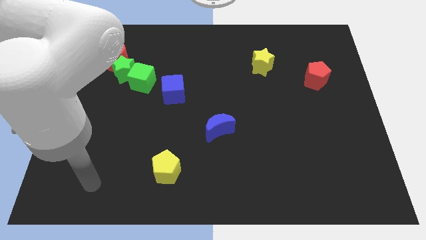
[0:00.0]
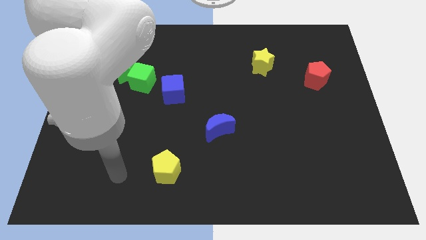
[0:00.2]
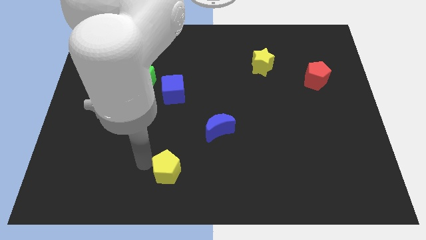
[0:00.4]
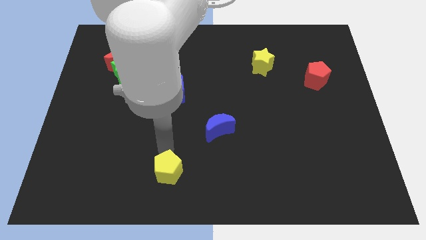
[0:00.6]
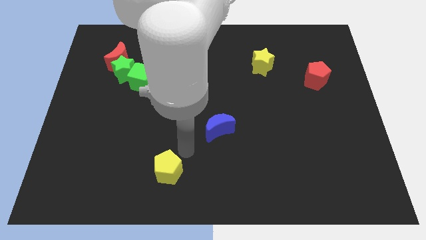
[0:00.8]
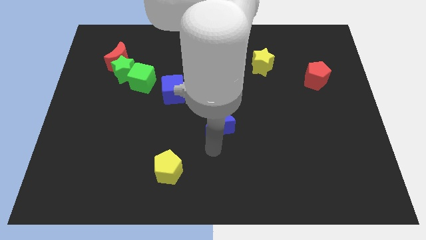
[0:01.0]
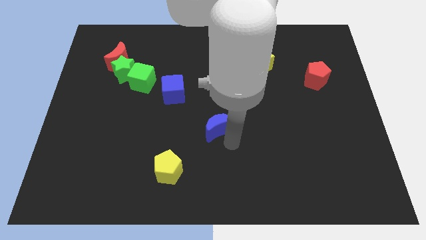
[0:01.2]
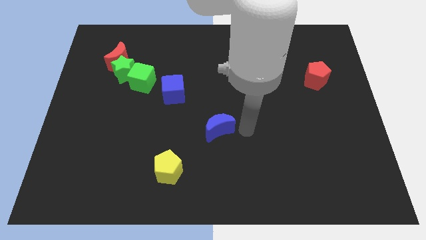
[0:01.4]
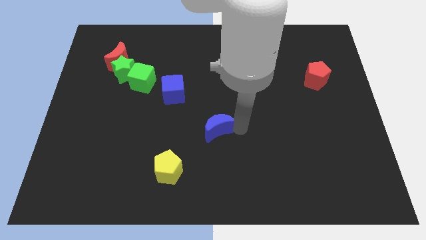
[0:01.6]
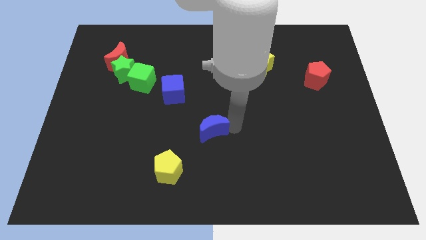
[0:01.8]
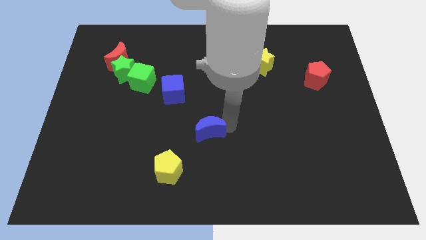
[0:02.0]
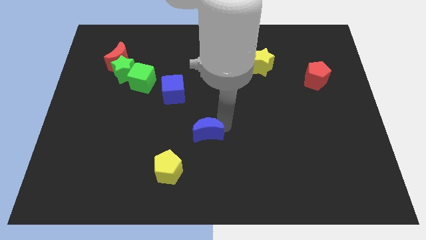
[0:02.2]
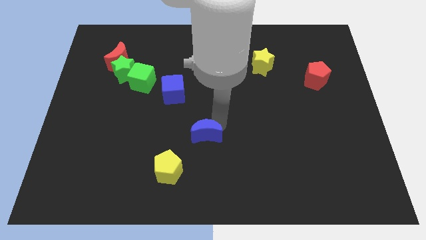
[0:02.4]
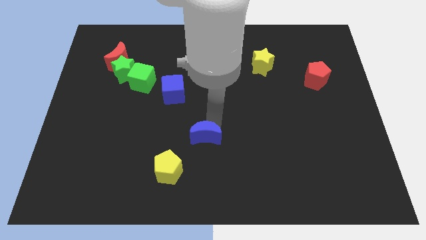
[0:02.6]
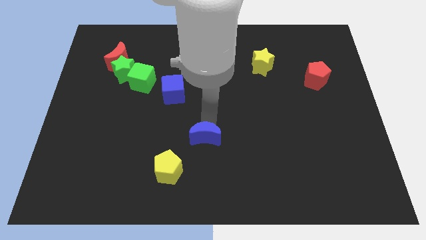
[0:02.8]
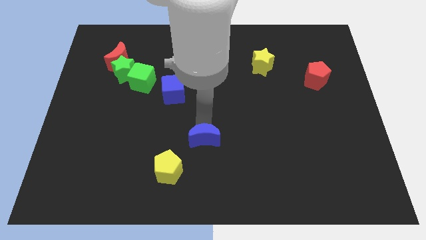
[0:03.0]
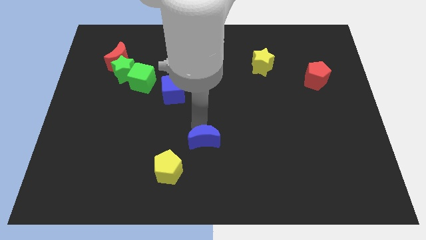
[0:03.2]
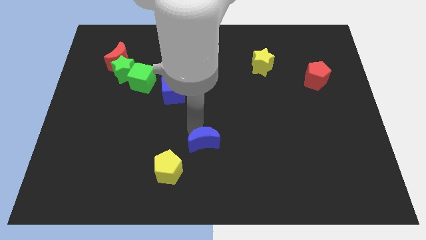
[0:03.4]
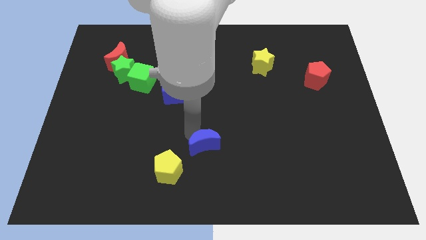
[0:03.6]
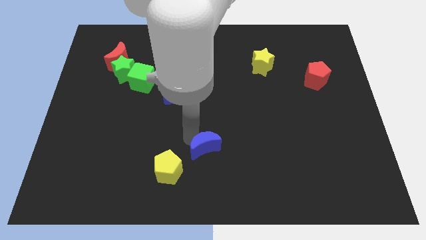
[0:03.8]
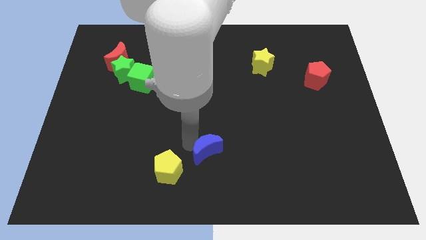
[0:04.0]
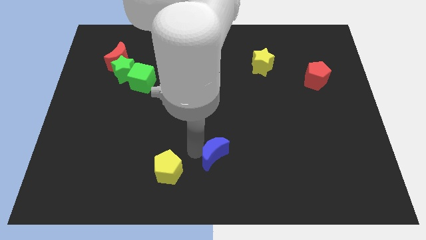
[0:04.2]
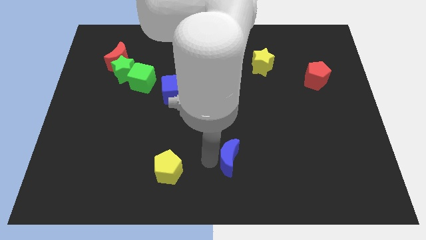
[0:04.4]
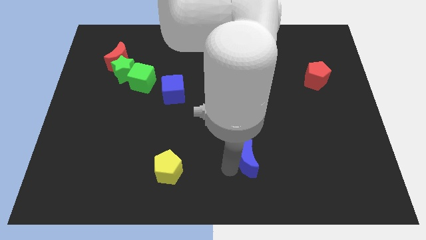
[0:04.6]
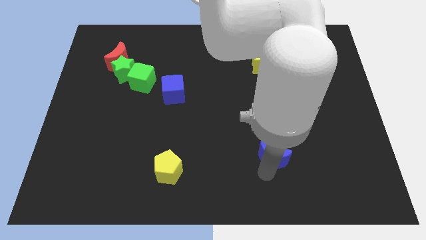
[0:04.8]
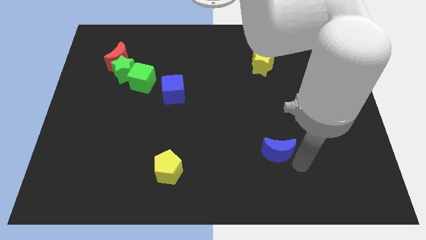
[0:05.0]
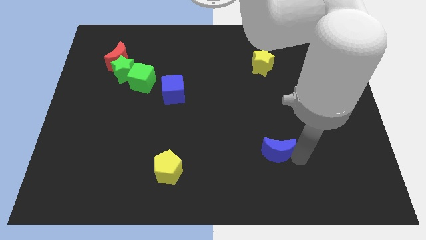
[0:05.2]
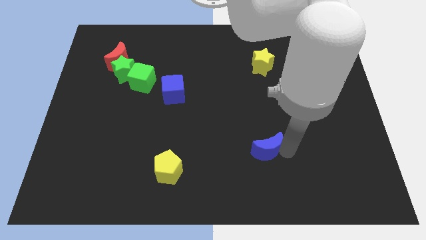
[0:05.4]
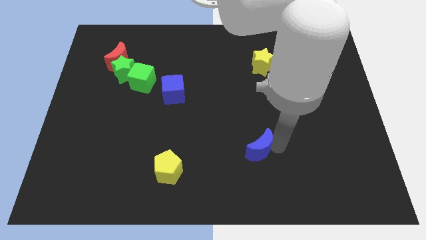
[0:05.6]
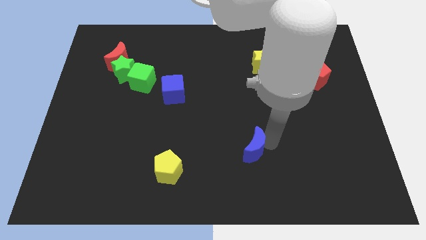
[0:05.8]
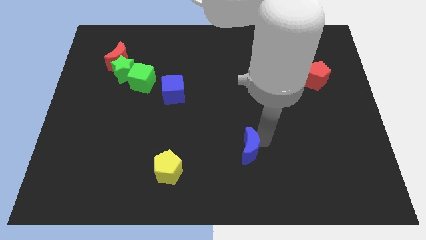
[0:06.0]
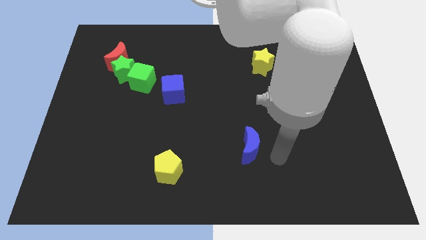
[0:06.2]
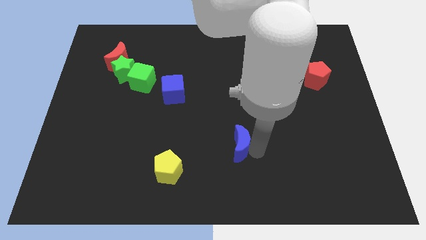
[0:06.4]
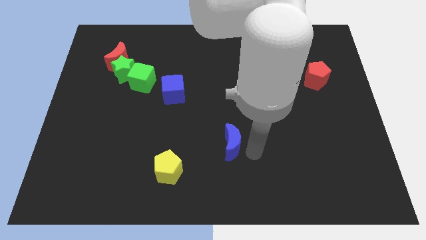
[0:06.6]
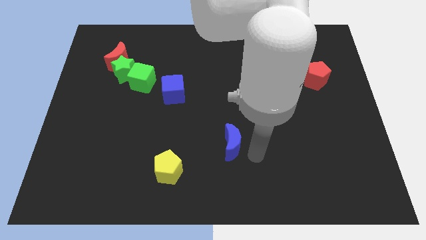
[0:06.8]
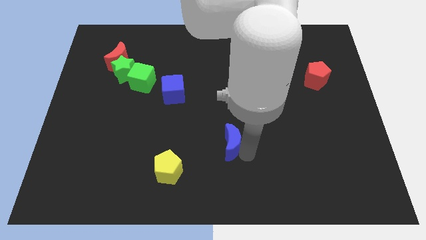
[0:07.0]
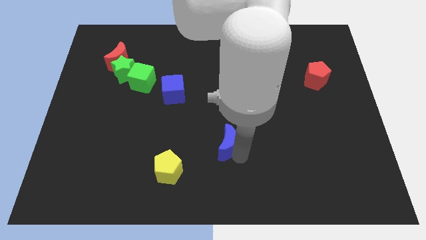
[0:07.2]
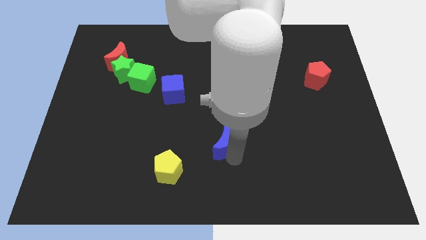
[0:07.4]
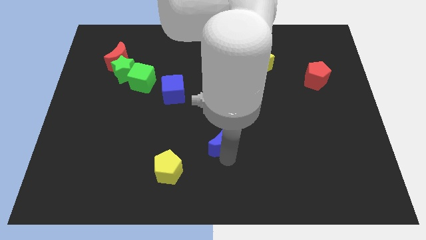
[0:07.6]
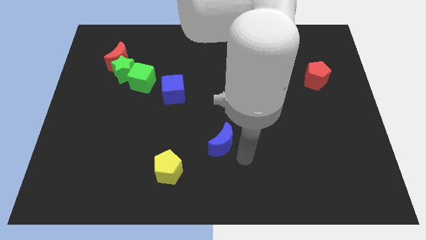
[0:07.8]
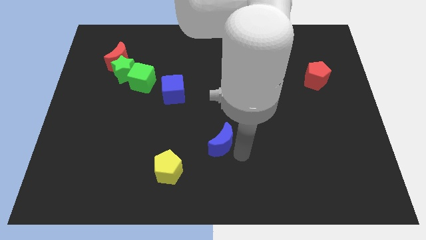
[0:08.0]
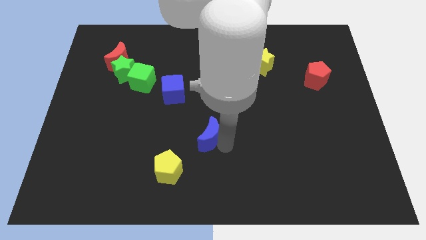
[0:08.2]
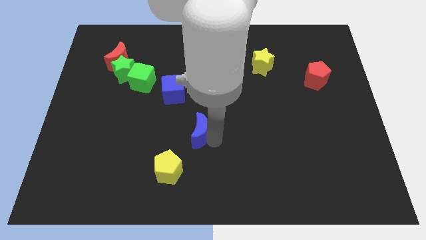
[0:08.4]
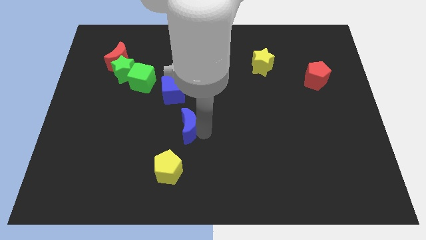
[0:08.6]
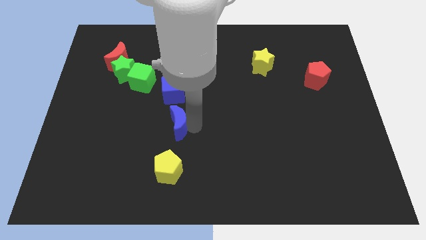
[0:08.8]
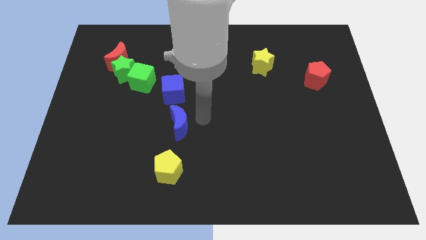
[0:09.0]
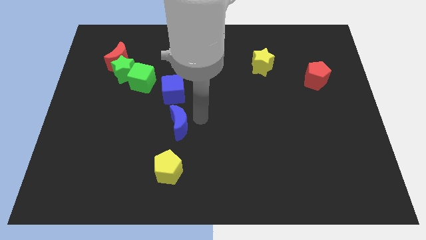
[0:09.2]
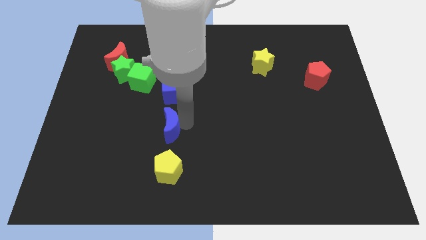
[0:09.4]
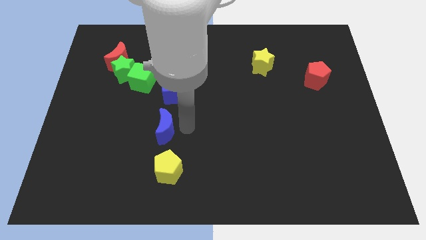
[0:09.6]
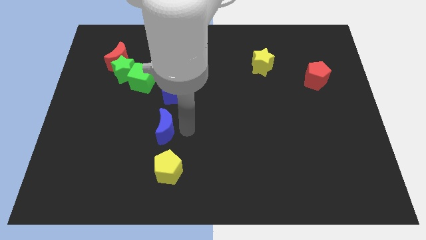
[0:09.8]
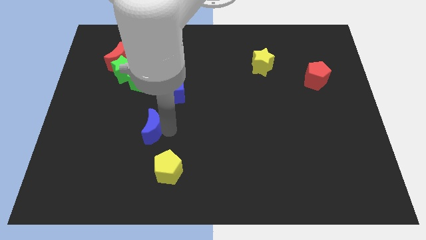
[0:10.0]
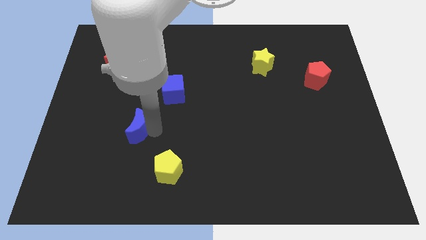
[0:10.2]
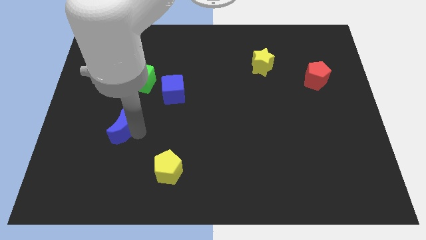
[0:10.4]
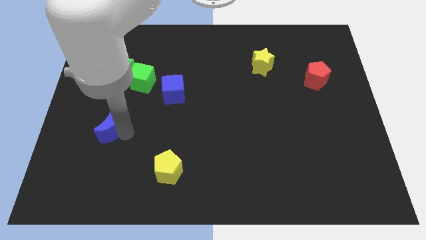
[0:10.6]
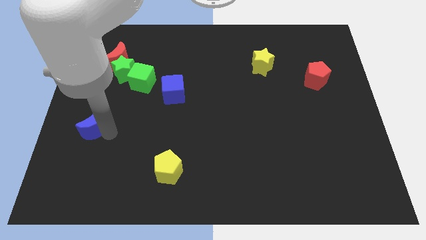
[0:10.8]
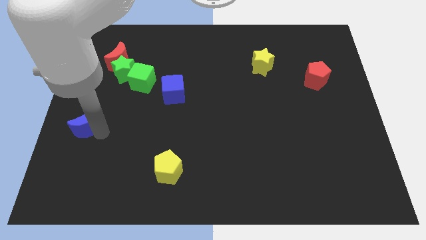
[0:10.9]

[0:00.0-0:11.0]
put the blue moon to the left side of the board

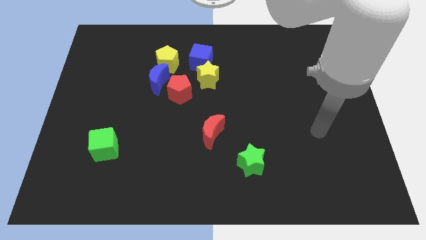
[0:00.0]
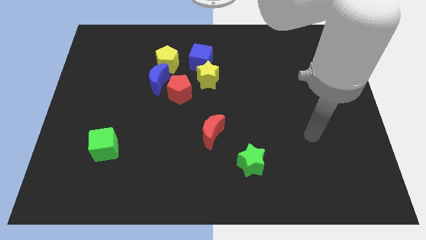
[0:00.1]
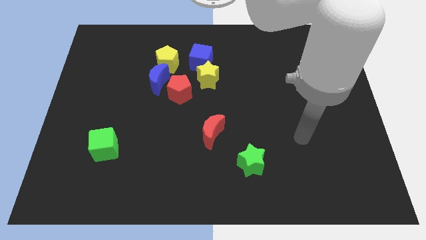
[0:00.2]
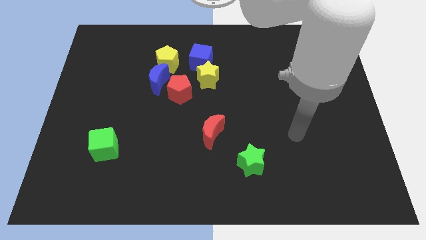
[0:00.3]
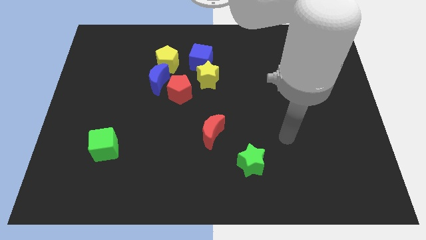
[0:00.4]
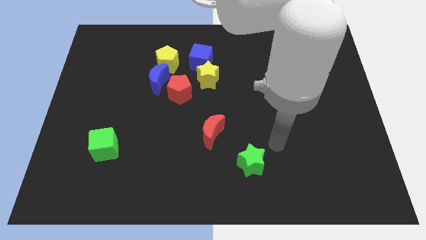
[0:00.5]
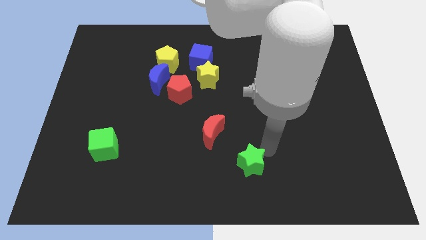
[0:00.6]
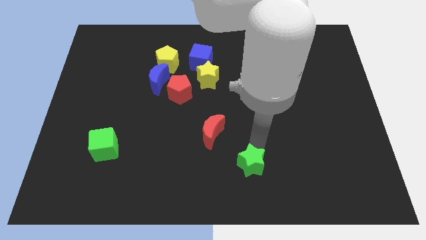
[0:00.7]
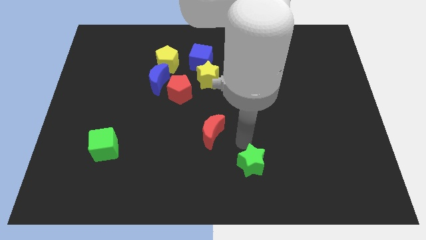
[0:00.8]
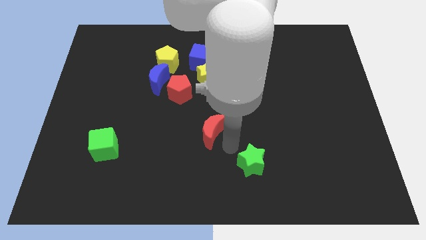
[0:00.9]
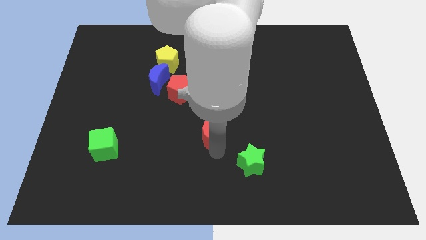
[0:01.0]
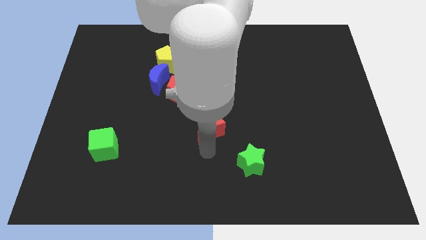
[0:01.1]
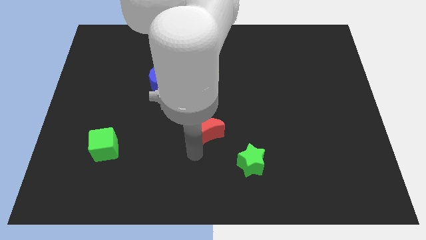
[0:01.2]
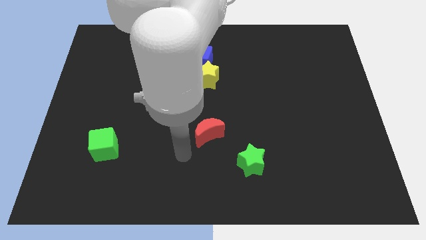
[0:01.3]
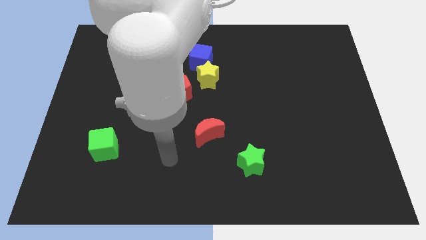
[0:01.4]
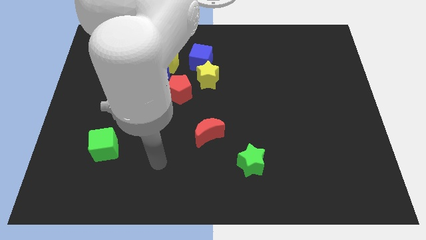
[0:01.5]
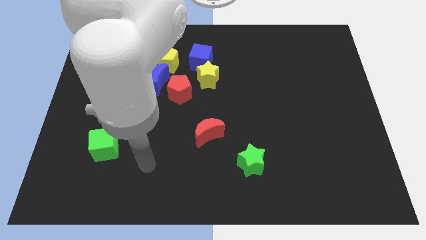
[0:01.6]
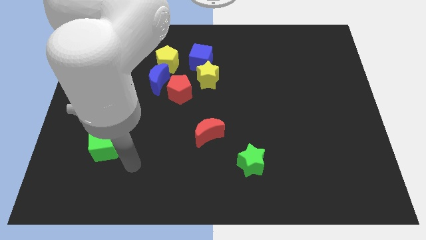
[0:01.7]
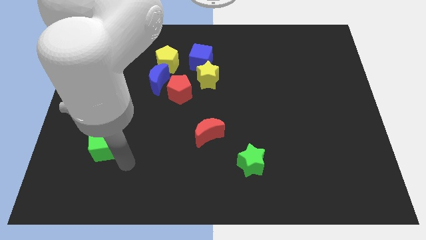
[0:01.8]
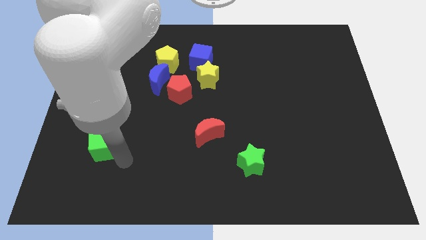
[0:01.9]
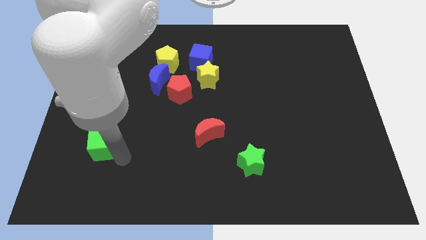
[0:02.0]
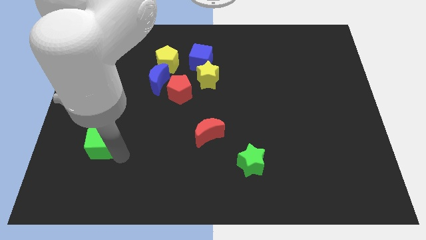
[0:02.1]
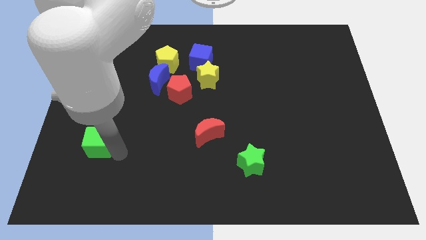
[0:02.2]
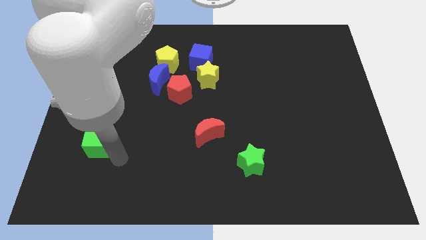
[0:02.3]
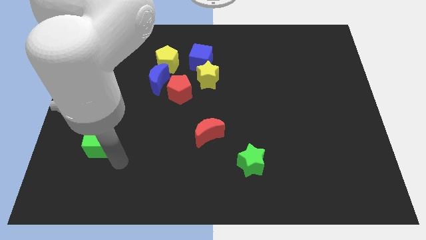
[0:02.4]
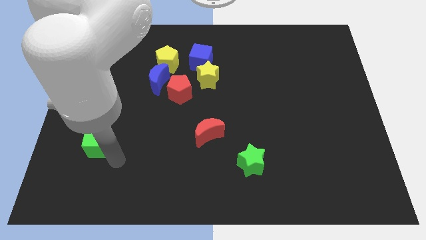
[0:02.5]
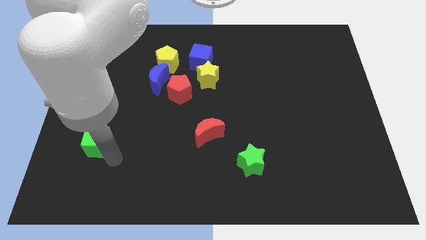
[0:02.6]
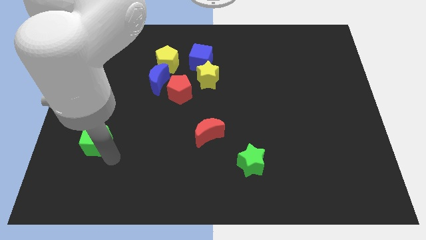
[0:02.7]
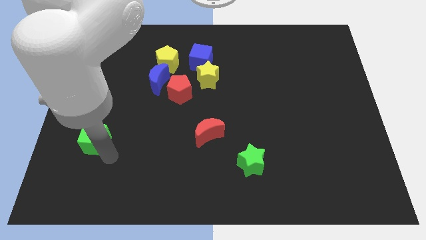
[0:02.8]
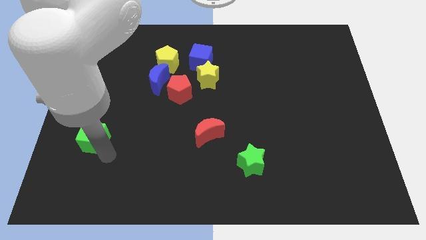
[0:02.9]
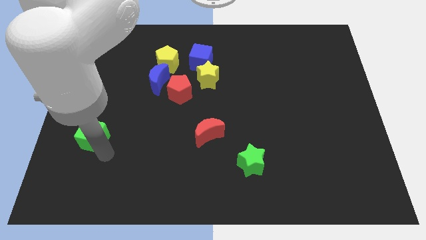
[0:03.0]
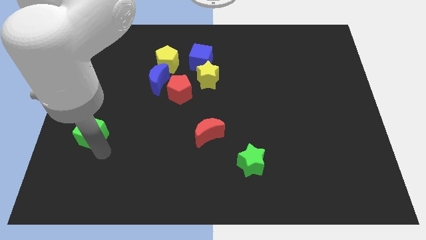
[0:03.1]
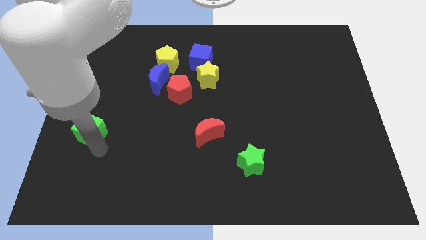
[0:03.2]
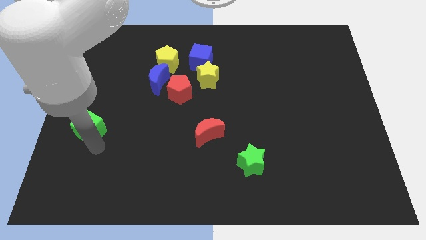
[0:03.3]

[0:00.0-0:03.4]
move the green cube to the center left
